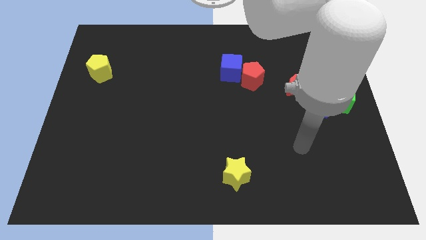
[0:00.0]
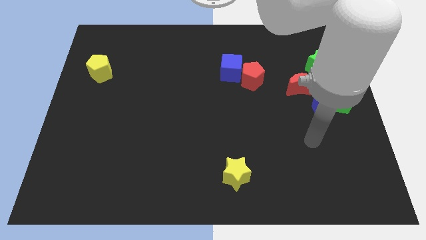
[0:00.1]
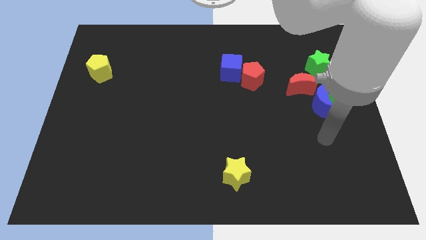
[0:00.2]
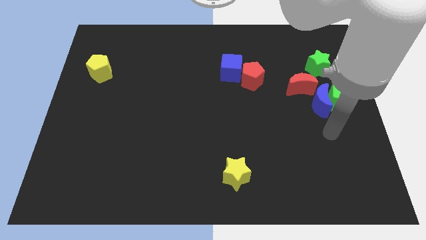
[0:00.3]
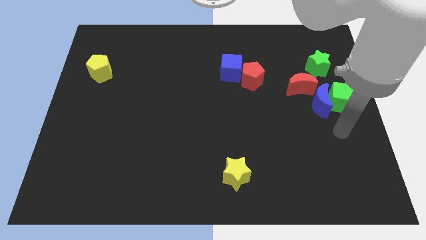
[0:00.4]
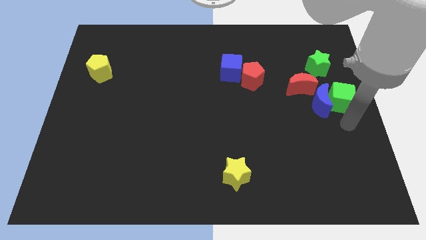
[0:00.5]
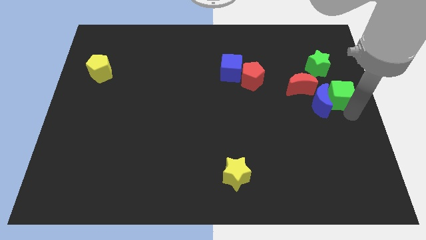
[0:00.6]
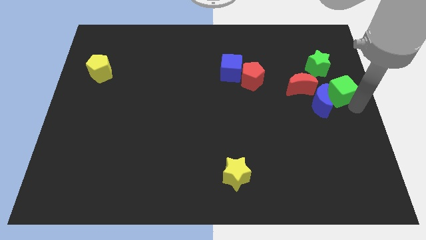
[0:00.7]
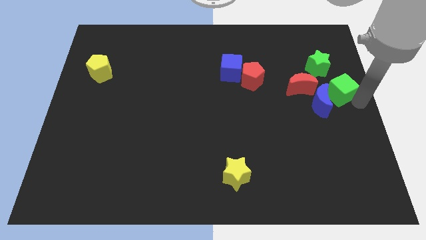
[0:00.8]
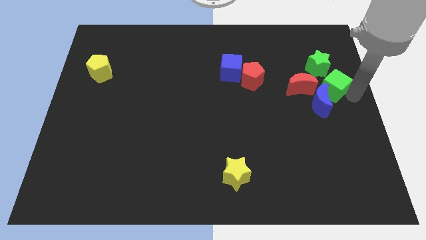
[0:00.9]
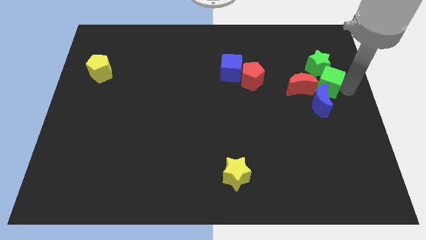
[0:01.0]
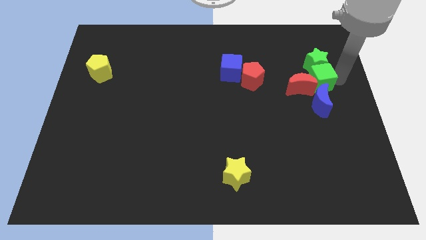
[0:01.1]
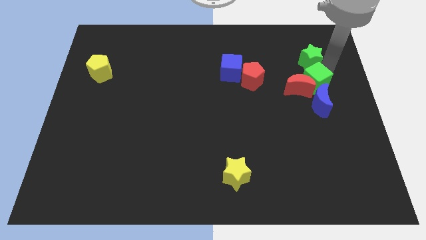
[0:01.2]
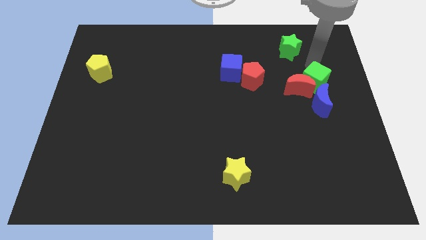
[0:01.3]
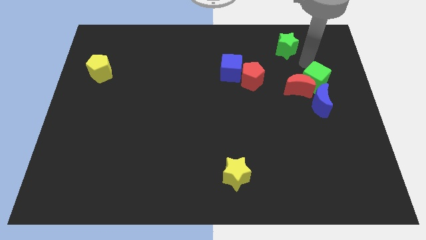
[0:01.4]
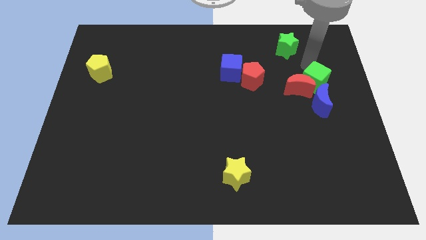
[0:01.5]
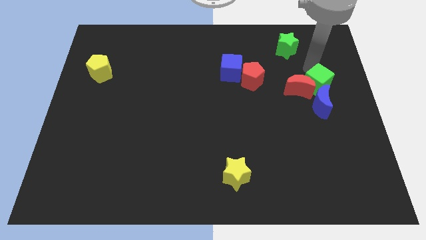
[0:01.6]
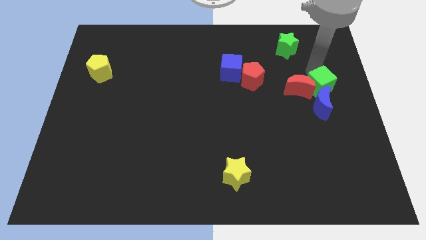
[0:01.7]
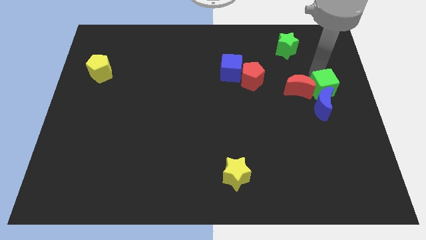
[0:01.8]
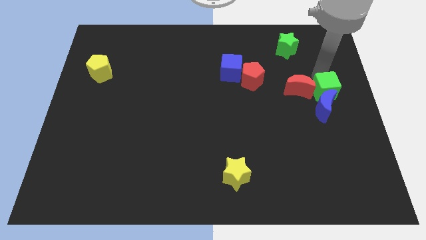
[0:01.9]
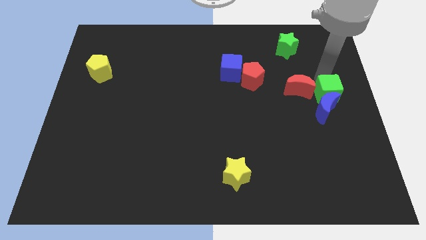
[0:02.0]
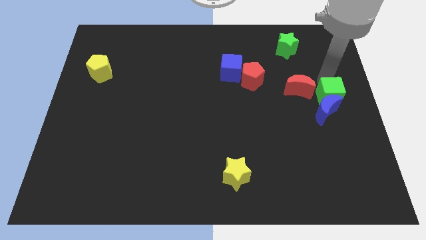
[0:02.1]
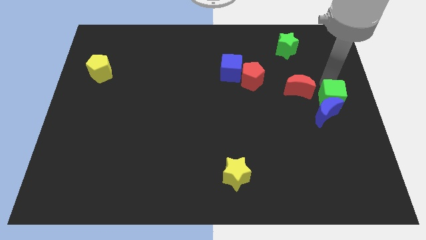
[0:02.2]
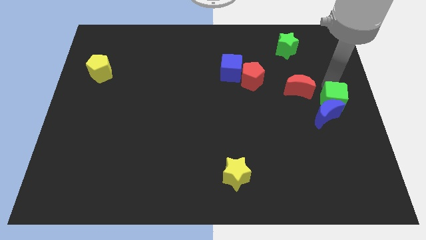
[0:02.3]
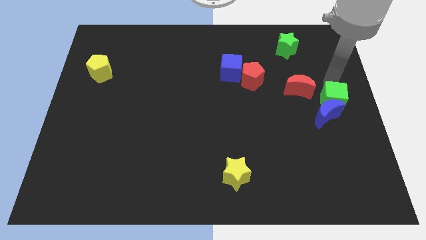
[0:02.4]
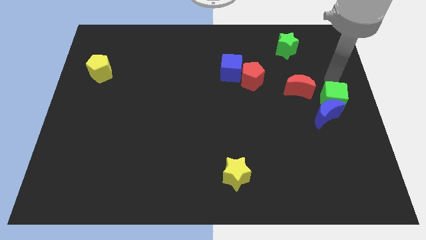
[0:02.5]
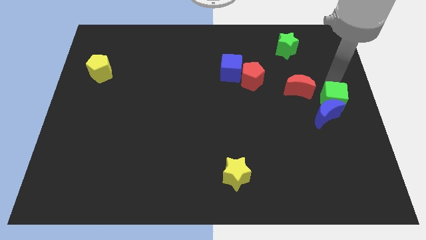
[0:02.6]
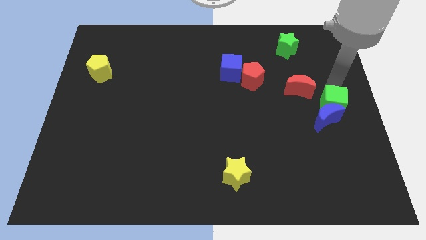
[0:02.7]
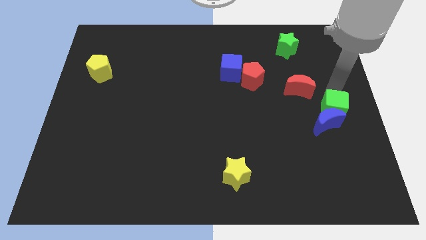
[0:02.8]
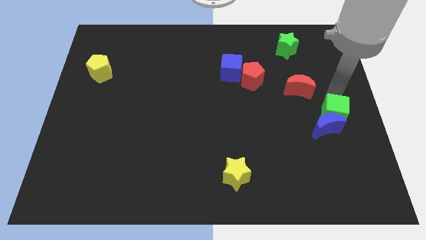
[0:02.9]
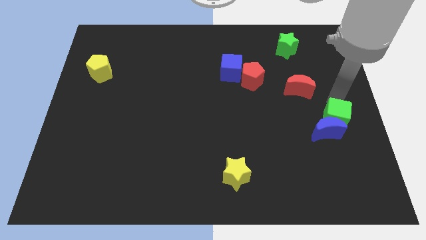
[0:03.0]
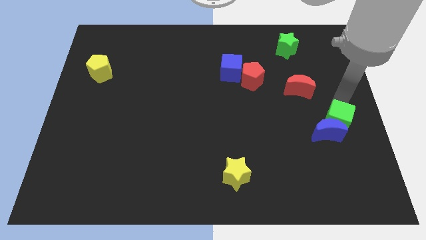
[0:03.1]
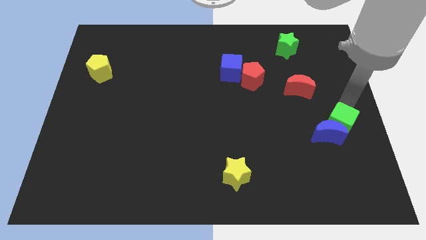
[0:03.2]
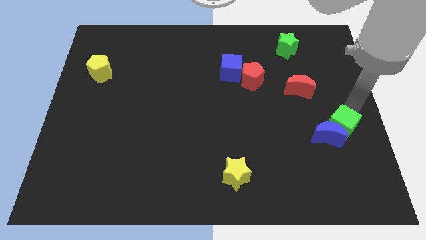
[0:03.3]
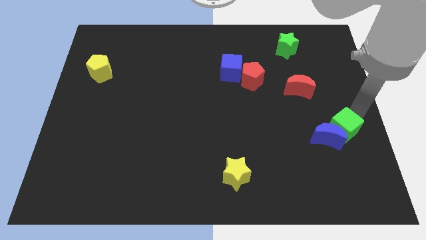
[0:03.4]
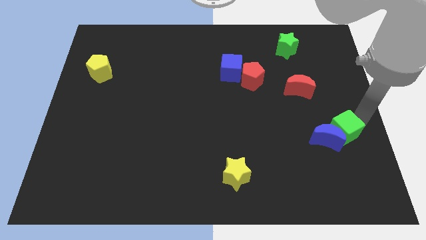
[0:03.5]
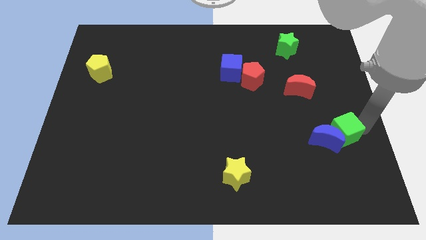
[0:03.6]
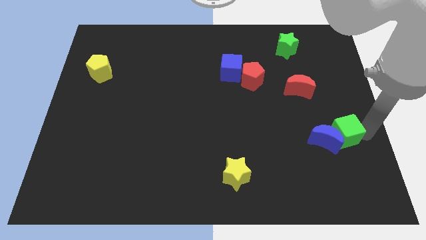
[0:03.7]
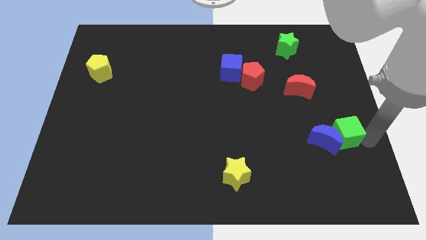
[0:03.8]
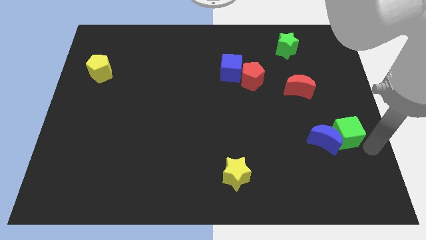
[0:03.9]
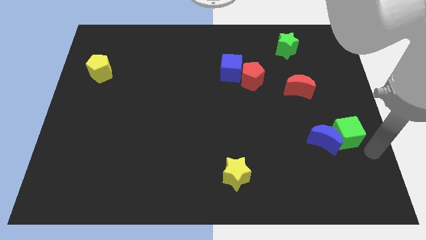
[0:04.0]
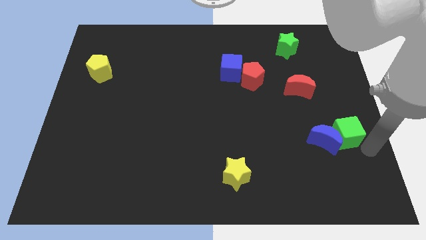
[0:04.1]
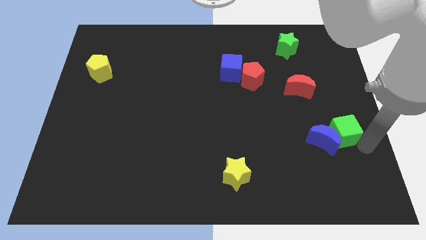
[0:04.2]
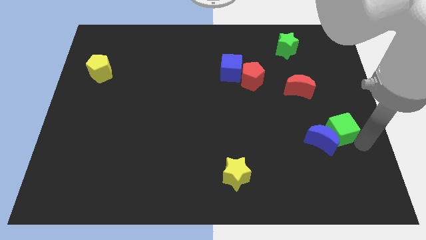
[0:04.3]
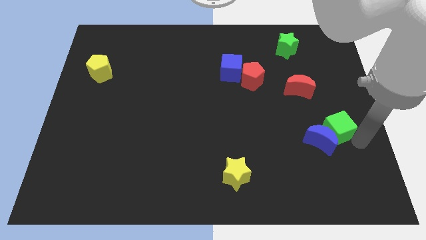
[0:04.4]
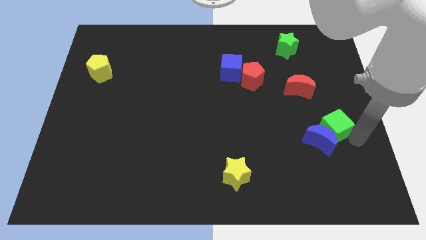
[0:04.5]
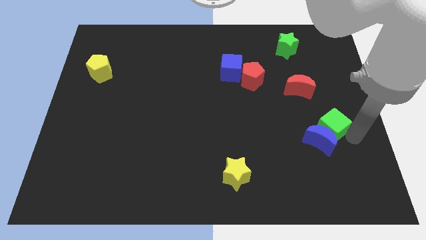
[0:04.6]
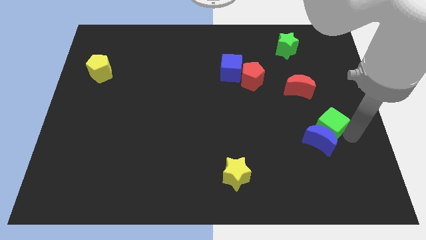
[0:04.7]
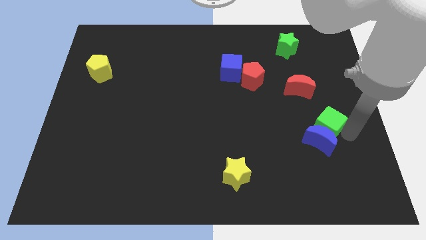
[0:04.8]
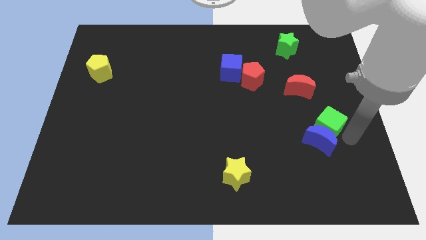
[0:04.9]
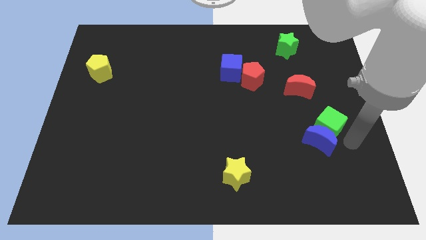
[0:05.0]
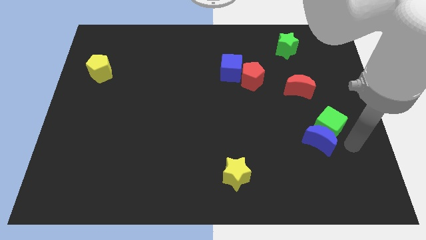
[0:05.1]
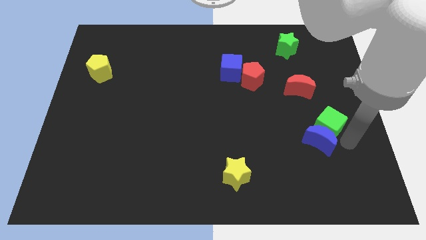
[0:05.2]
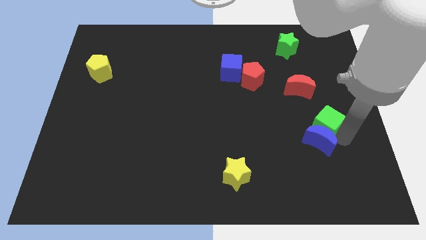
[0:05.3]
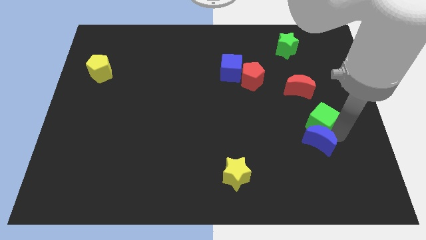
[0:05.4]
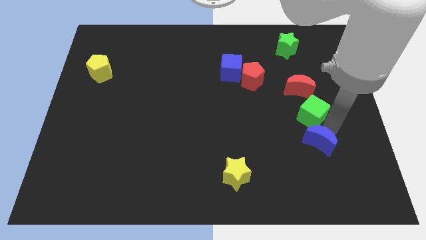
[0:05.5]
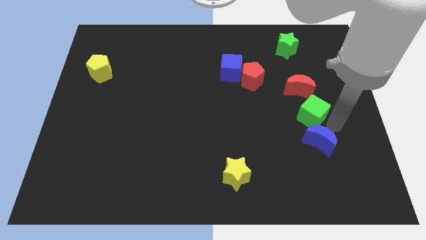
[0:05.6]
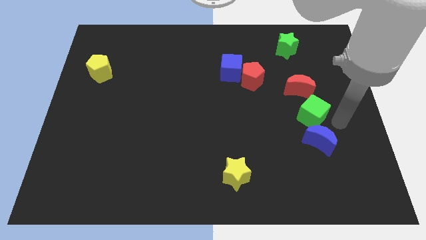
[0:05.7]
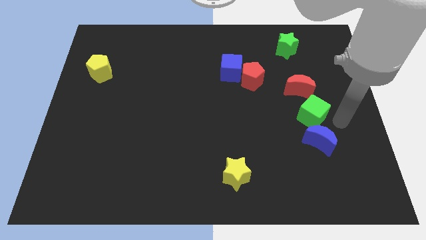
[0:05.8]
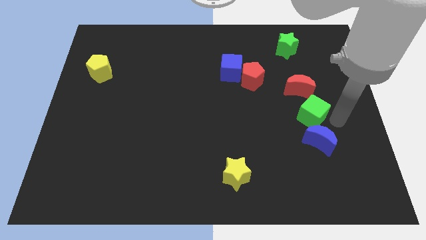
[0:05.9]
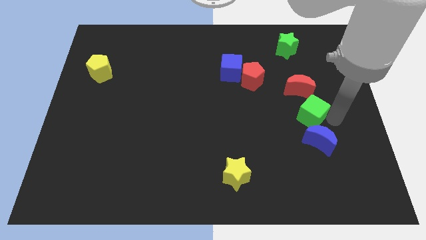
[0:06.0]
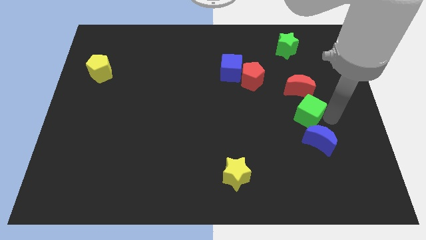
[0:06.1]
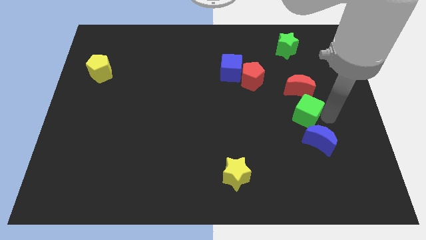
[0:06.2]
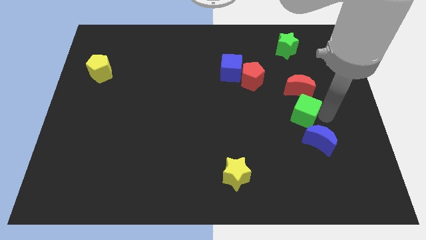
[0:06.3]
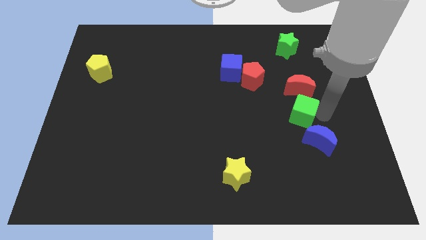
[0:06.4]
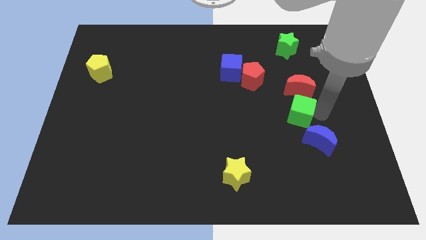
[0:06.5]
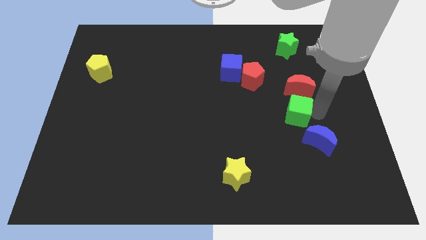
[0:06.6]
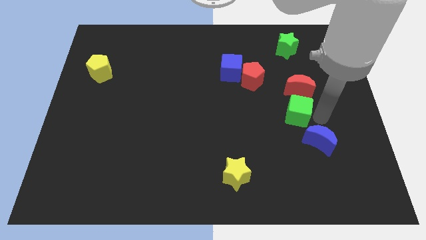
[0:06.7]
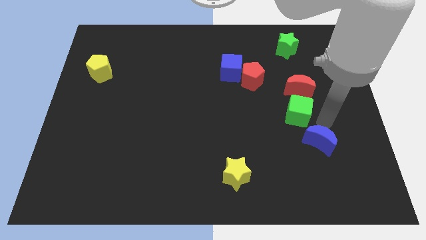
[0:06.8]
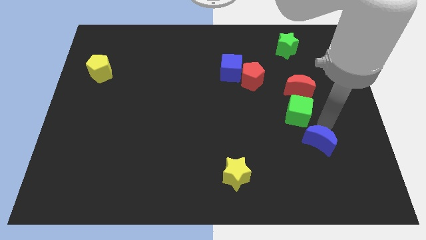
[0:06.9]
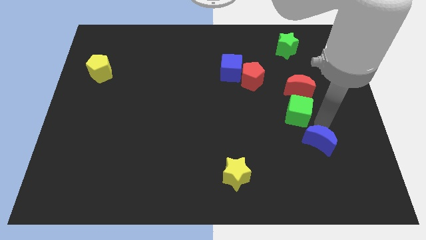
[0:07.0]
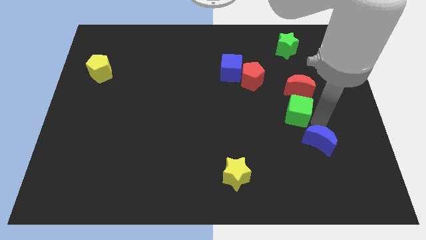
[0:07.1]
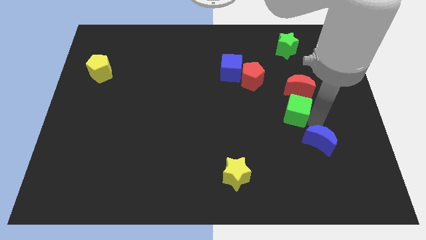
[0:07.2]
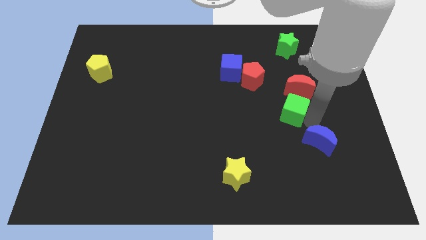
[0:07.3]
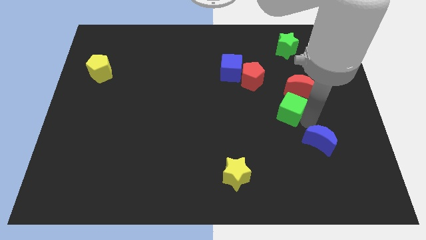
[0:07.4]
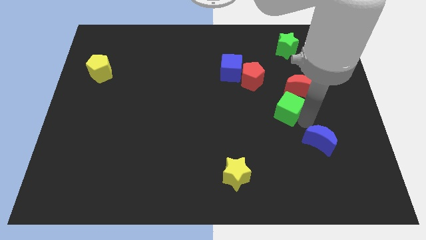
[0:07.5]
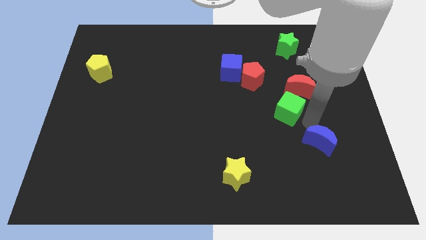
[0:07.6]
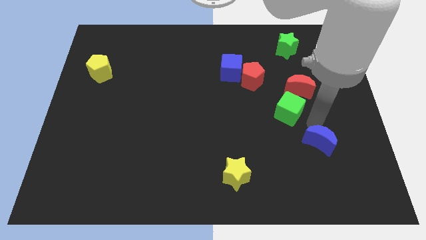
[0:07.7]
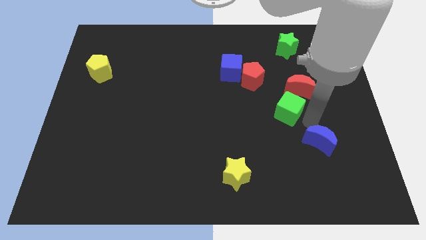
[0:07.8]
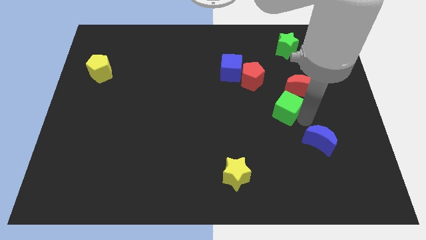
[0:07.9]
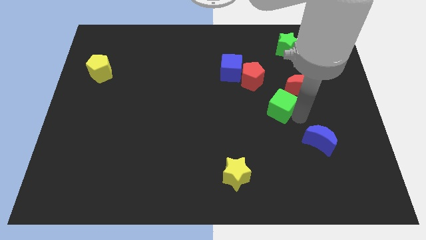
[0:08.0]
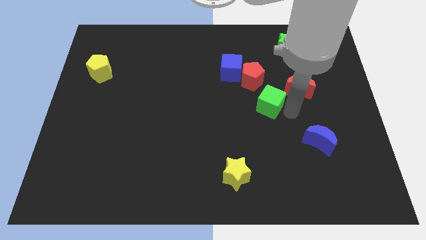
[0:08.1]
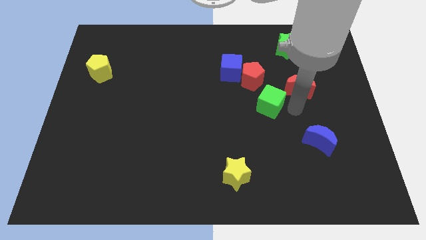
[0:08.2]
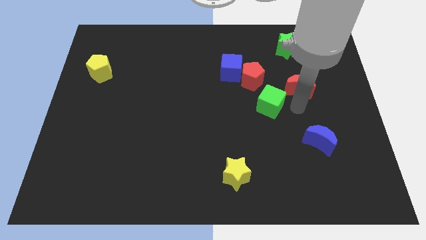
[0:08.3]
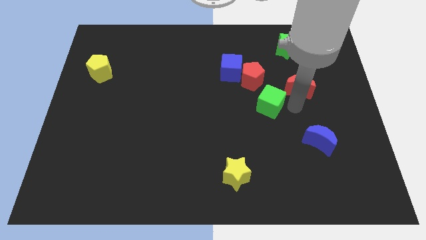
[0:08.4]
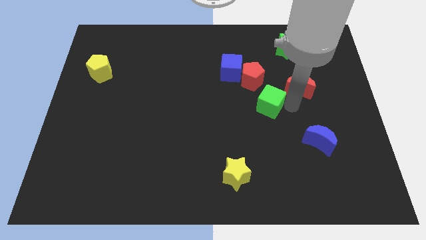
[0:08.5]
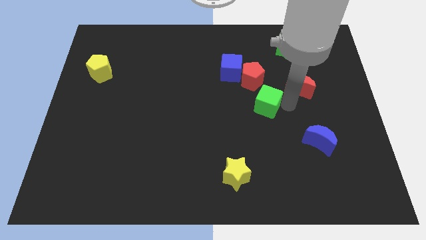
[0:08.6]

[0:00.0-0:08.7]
slide the green cube to the center of the board
